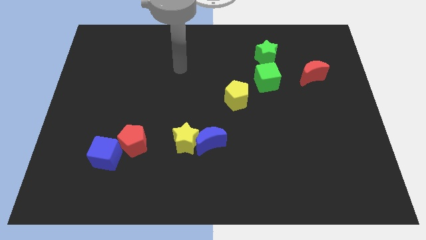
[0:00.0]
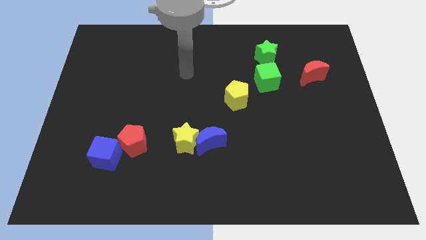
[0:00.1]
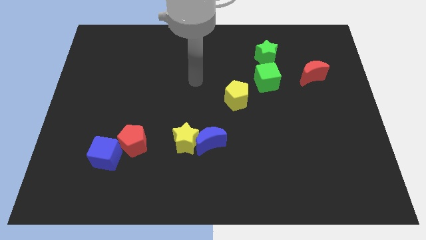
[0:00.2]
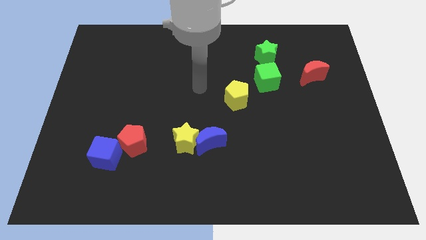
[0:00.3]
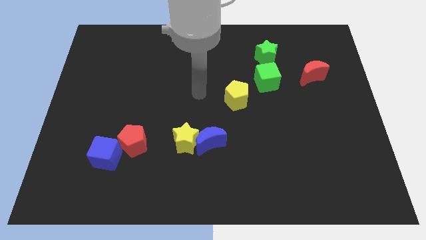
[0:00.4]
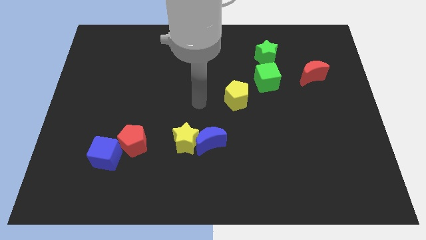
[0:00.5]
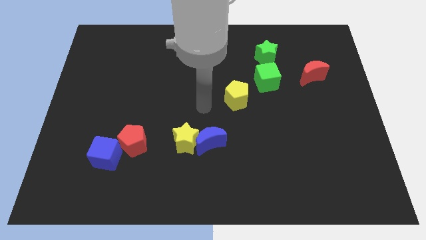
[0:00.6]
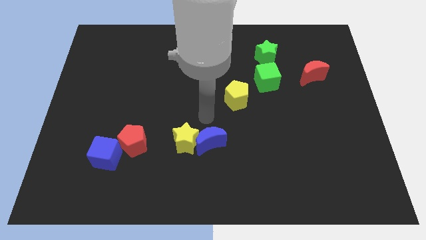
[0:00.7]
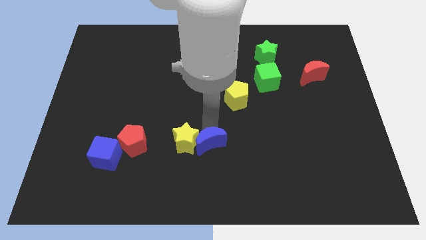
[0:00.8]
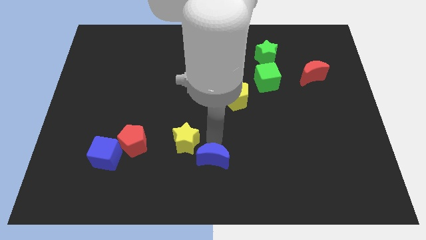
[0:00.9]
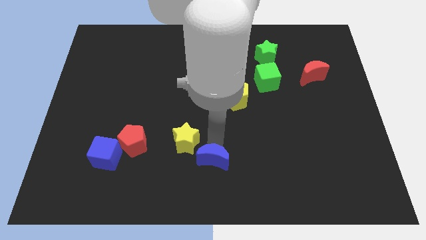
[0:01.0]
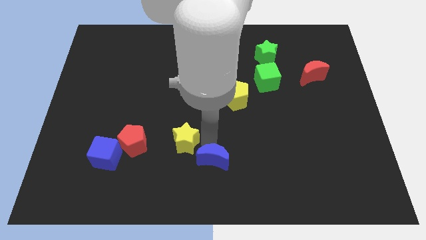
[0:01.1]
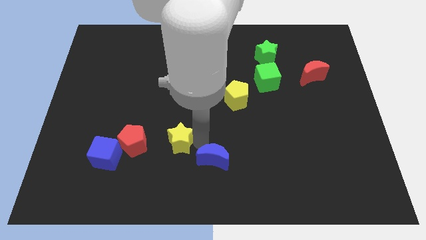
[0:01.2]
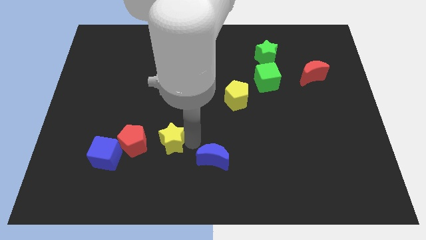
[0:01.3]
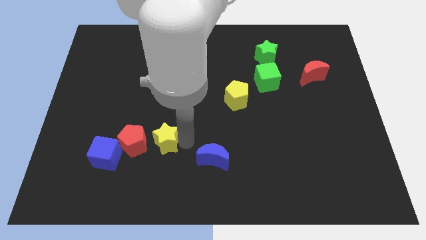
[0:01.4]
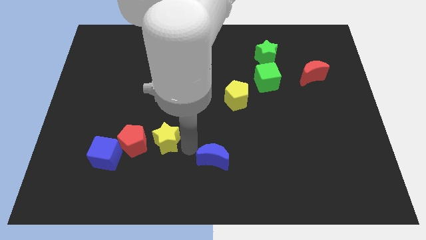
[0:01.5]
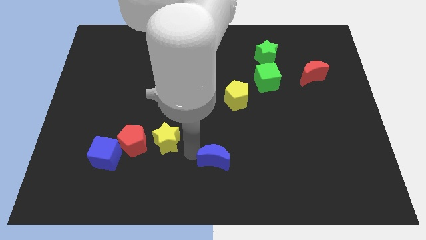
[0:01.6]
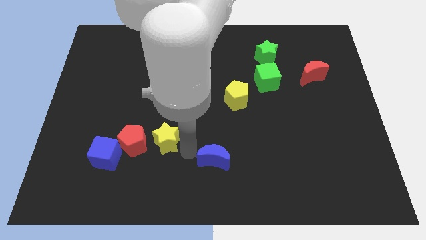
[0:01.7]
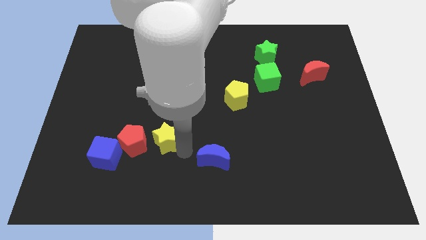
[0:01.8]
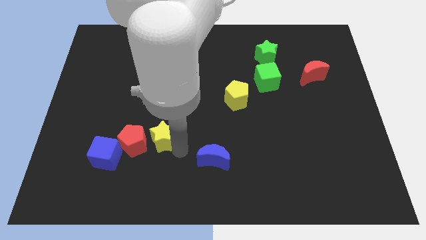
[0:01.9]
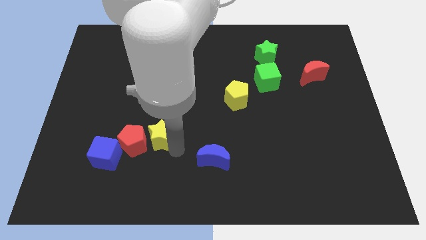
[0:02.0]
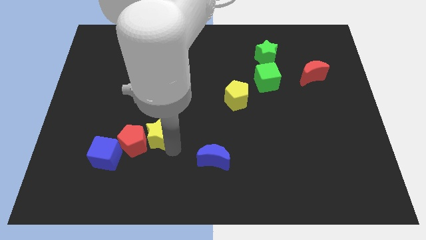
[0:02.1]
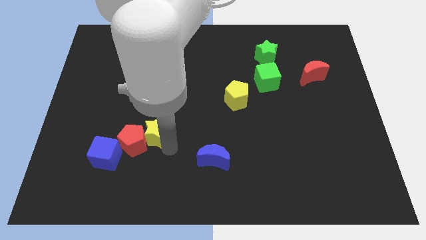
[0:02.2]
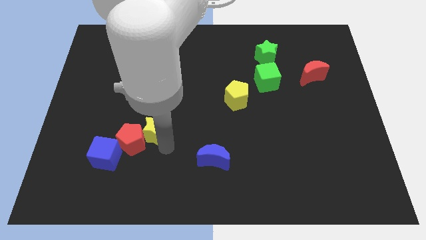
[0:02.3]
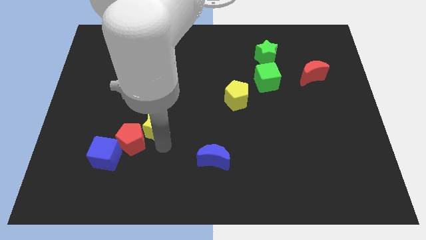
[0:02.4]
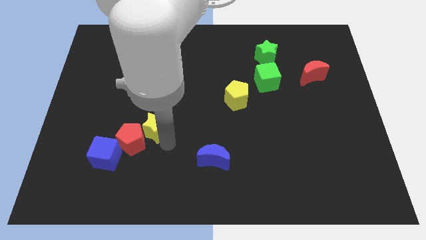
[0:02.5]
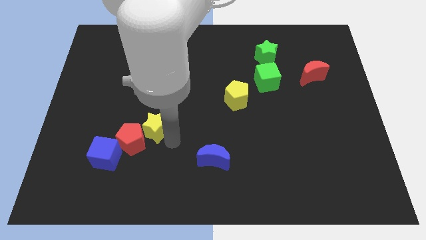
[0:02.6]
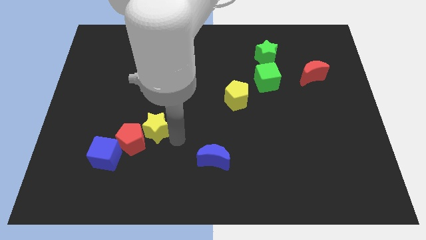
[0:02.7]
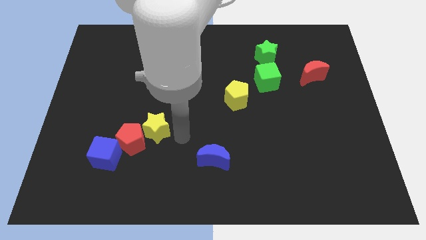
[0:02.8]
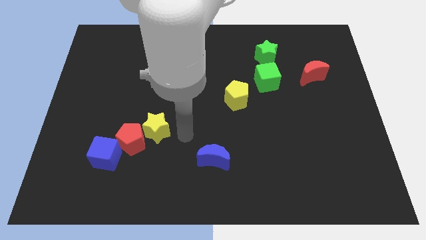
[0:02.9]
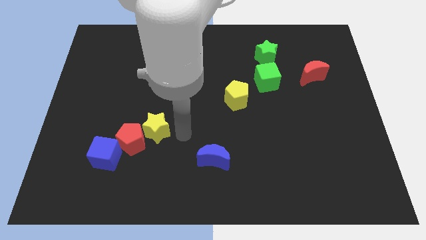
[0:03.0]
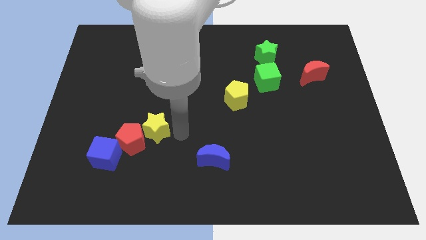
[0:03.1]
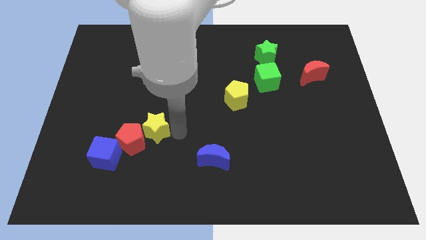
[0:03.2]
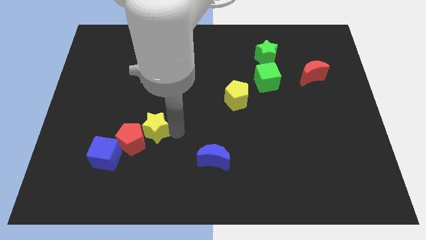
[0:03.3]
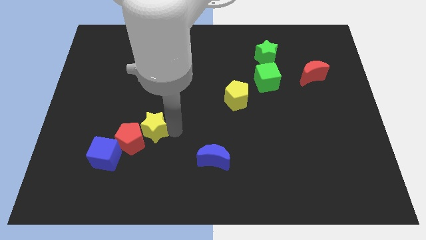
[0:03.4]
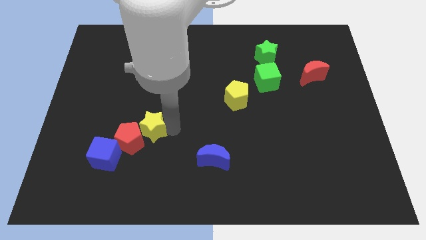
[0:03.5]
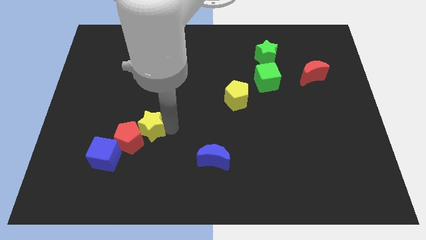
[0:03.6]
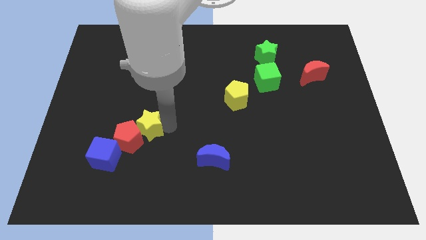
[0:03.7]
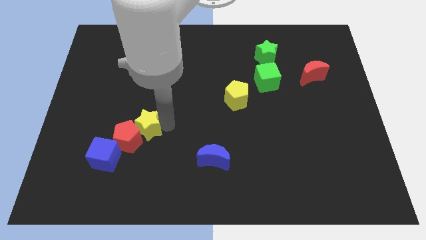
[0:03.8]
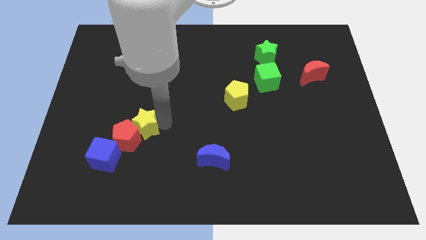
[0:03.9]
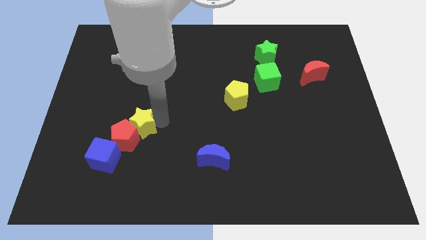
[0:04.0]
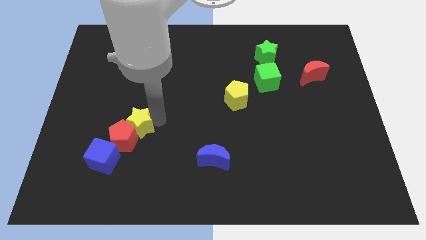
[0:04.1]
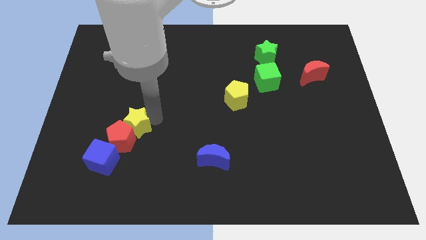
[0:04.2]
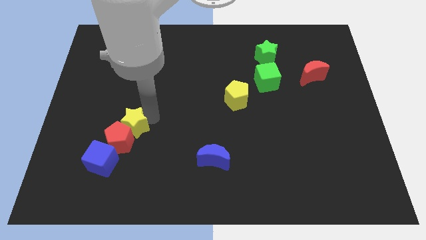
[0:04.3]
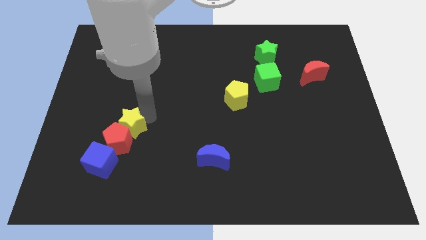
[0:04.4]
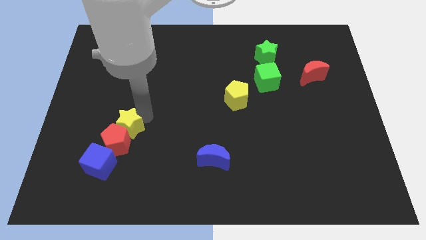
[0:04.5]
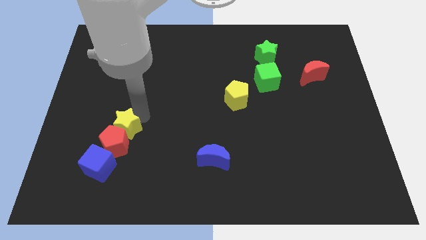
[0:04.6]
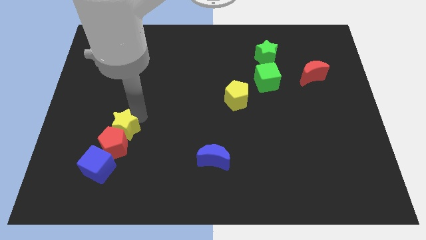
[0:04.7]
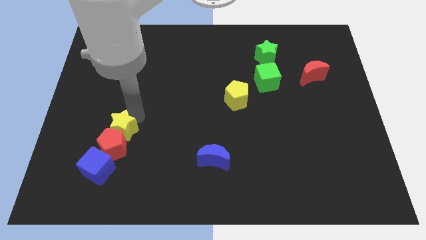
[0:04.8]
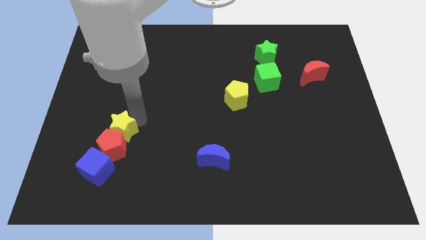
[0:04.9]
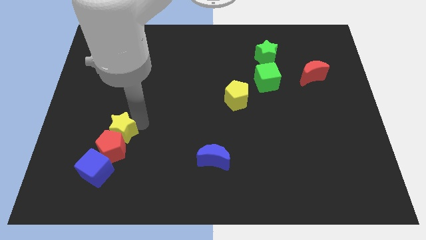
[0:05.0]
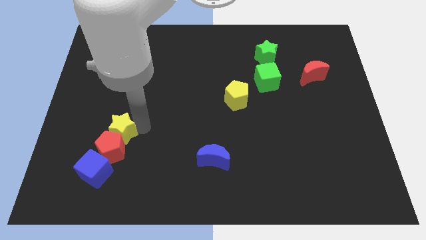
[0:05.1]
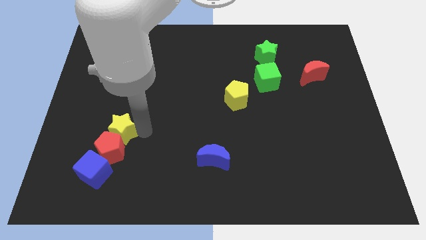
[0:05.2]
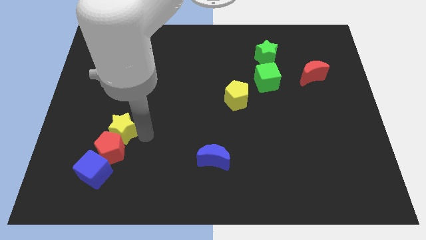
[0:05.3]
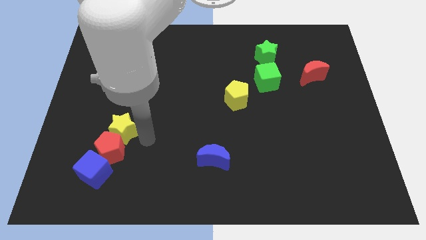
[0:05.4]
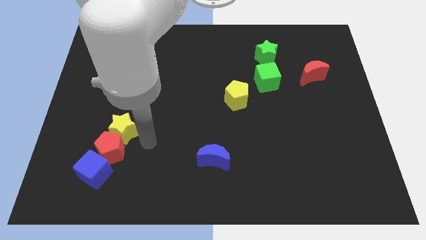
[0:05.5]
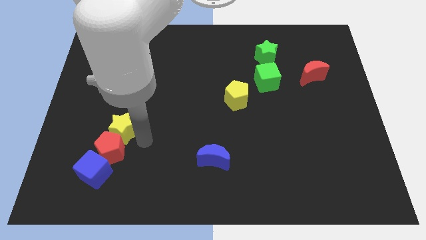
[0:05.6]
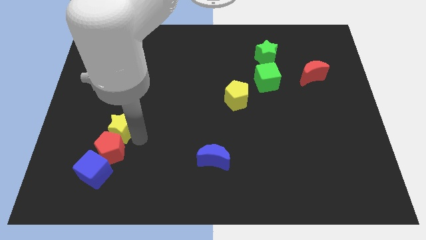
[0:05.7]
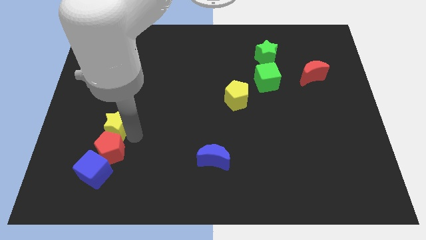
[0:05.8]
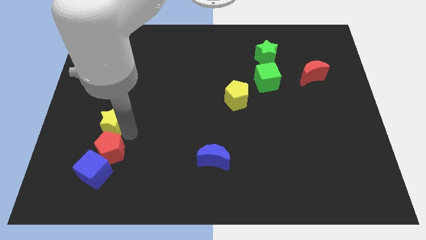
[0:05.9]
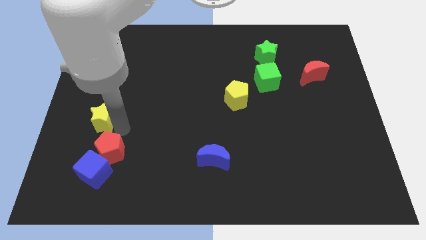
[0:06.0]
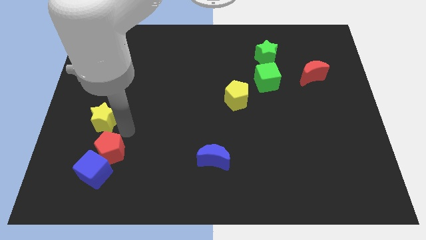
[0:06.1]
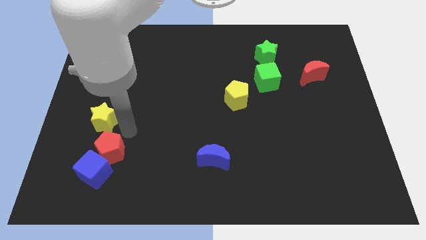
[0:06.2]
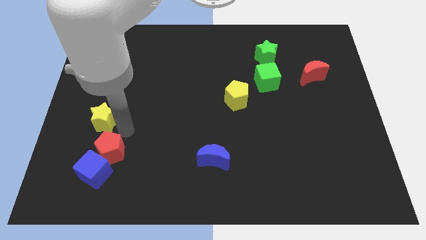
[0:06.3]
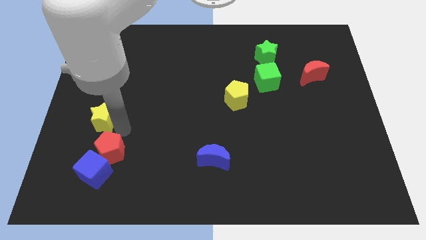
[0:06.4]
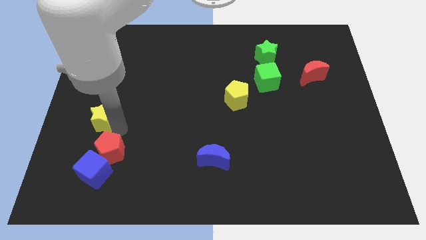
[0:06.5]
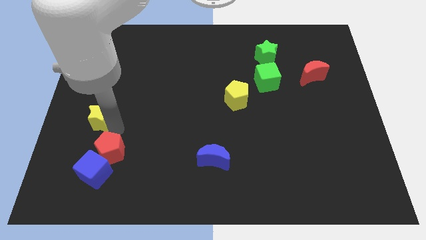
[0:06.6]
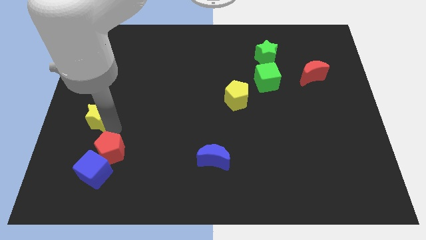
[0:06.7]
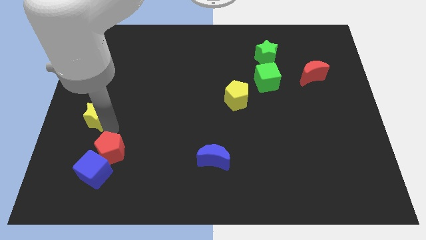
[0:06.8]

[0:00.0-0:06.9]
move the yellow star to the left side of the board
